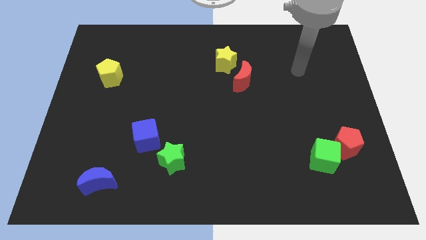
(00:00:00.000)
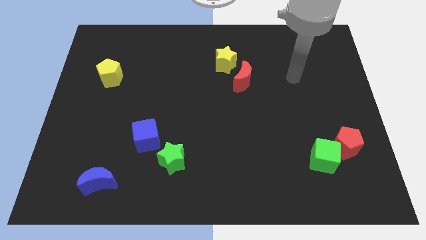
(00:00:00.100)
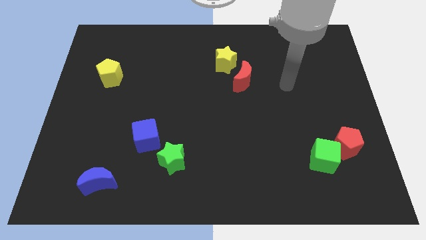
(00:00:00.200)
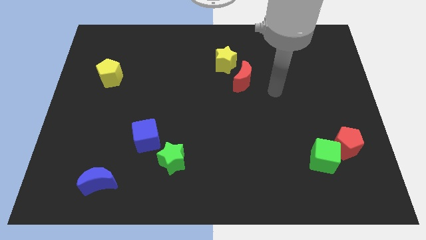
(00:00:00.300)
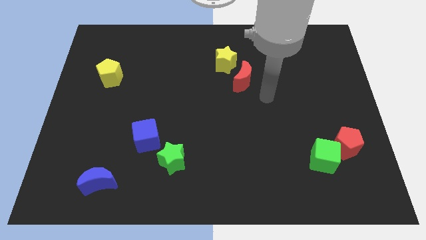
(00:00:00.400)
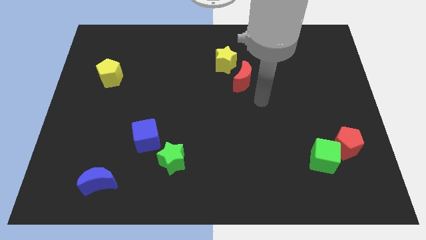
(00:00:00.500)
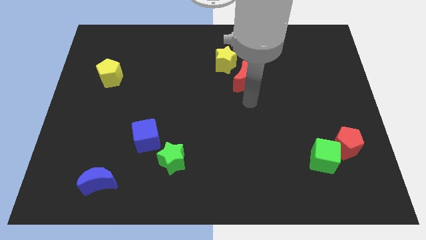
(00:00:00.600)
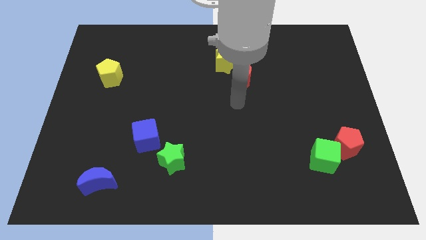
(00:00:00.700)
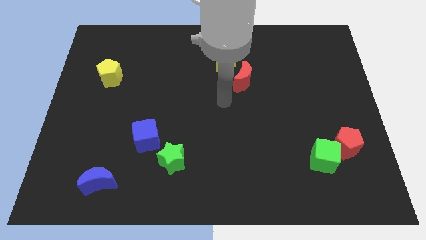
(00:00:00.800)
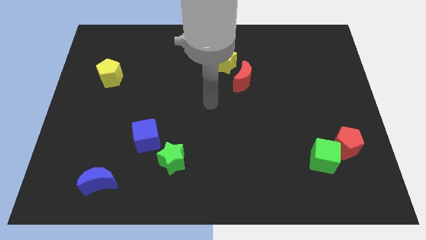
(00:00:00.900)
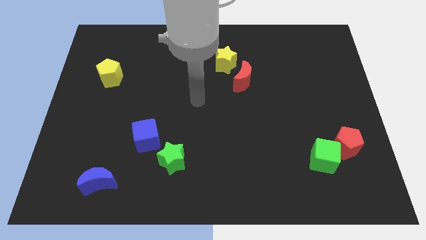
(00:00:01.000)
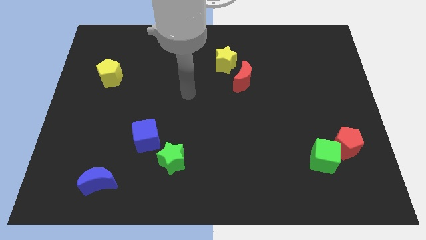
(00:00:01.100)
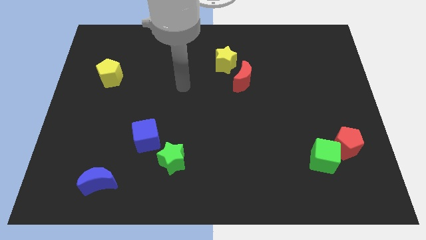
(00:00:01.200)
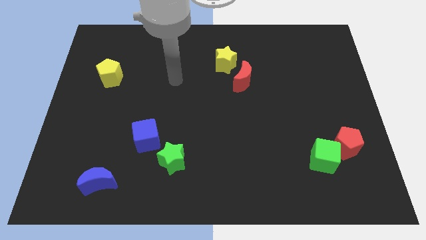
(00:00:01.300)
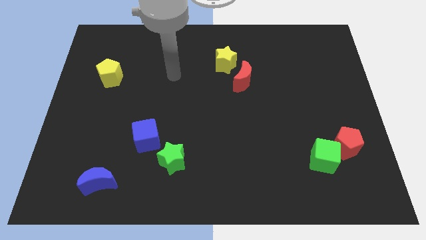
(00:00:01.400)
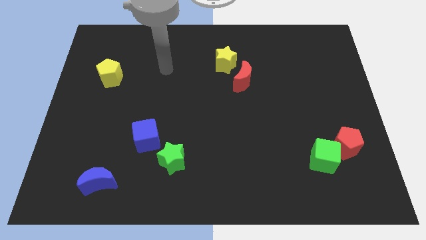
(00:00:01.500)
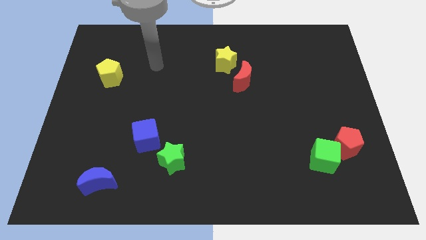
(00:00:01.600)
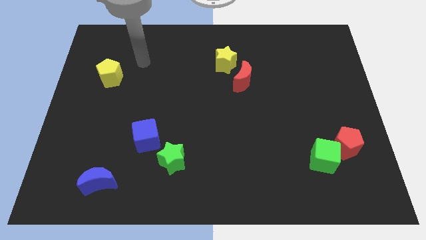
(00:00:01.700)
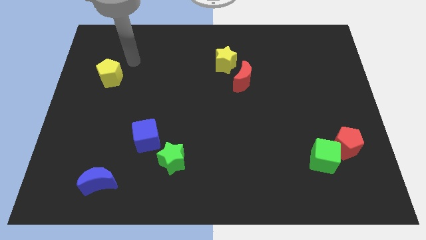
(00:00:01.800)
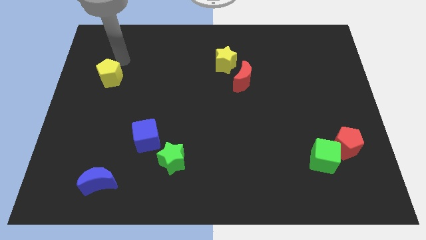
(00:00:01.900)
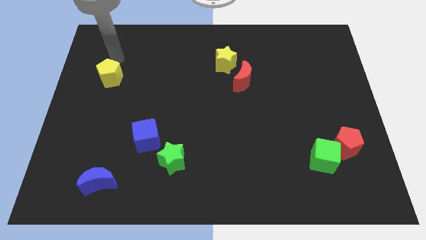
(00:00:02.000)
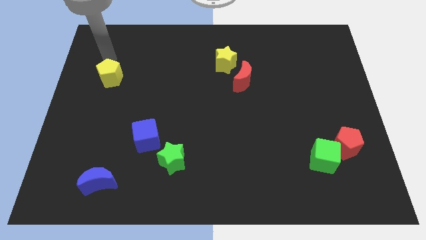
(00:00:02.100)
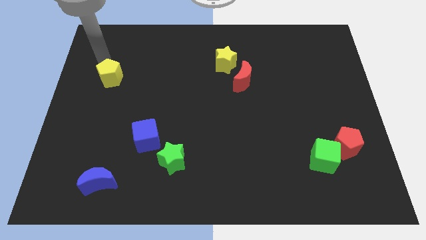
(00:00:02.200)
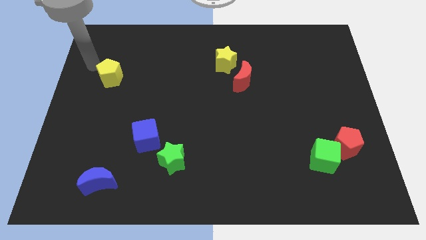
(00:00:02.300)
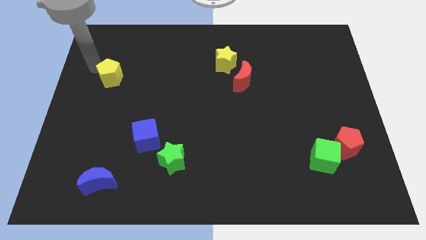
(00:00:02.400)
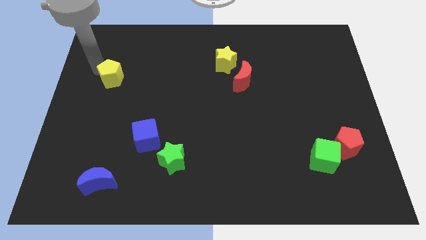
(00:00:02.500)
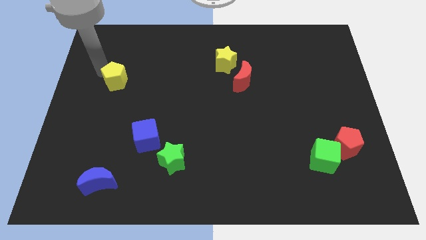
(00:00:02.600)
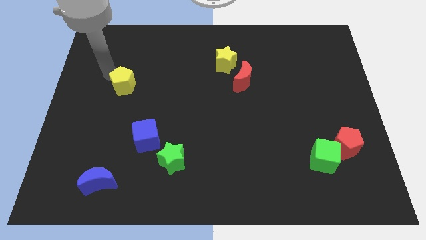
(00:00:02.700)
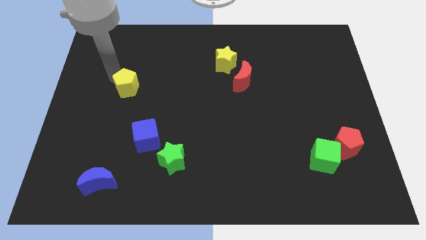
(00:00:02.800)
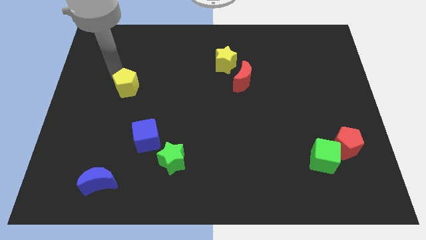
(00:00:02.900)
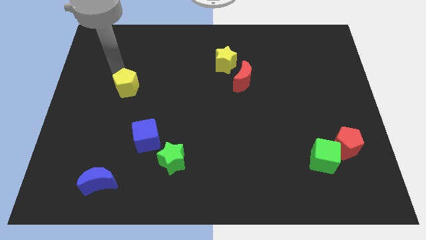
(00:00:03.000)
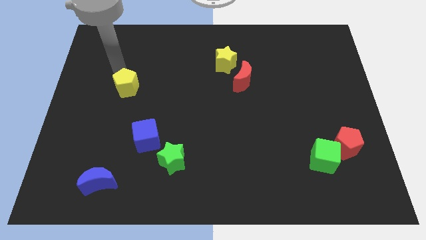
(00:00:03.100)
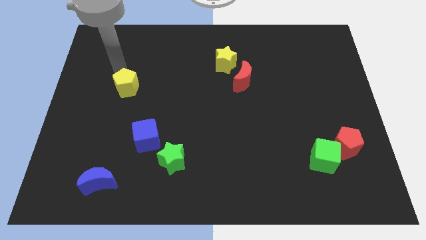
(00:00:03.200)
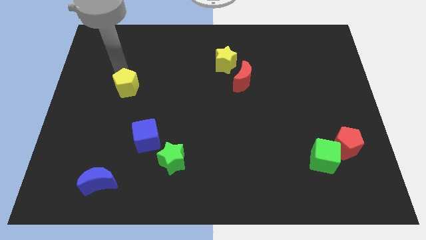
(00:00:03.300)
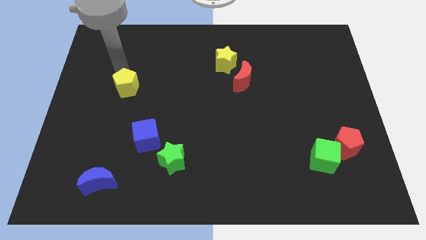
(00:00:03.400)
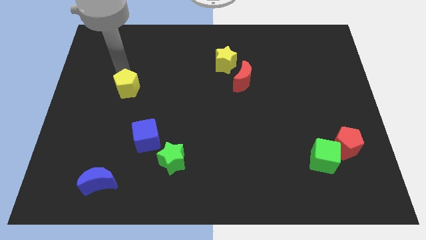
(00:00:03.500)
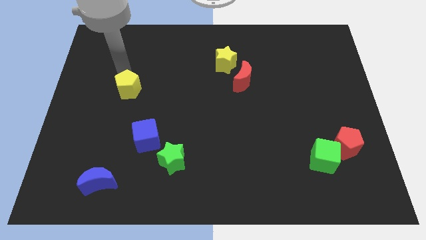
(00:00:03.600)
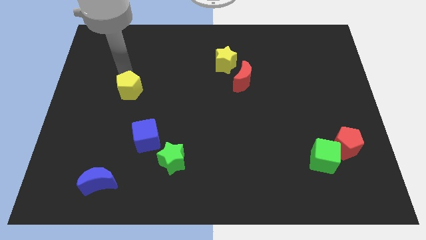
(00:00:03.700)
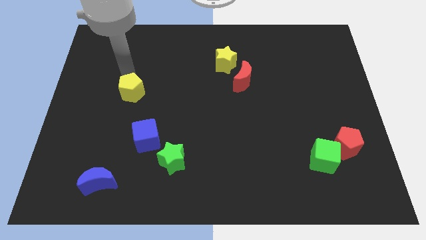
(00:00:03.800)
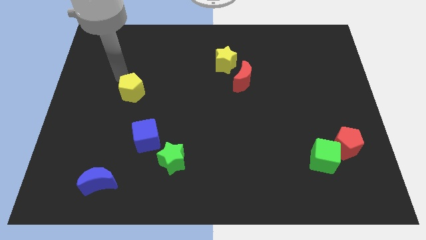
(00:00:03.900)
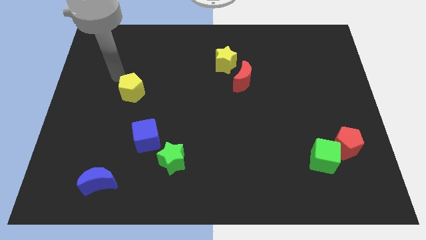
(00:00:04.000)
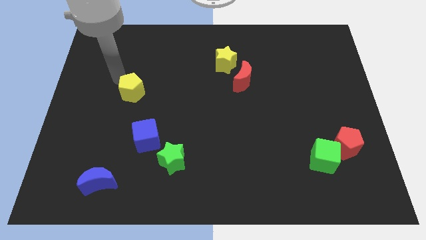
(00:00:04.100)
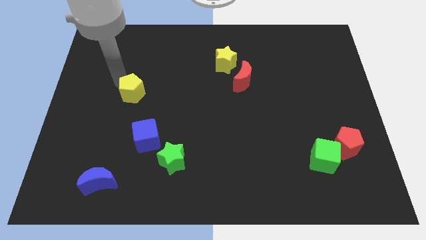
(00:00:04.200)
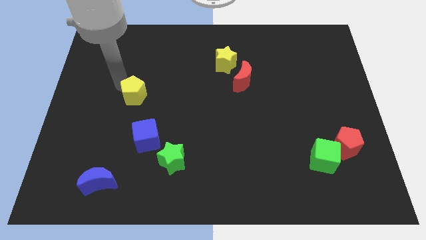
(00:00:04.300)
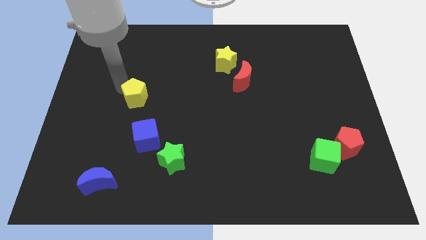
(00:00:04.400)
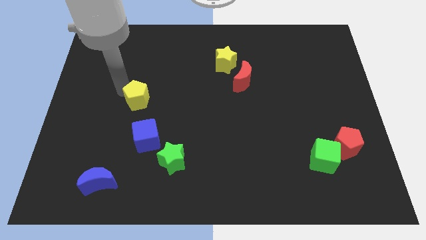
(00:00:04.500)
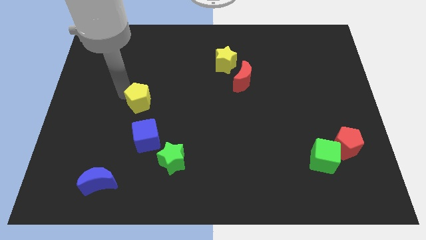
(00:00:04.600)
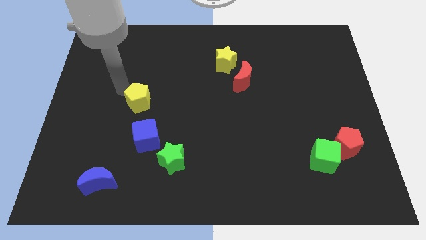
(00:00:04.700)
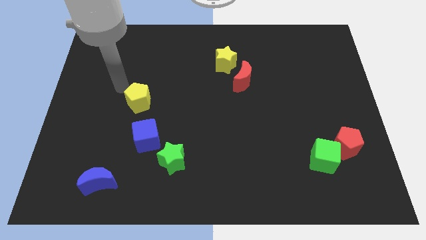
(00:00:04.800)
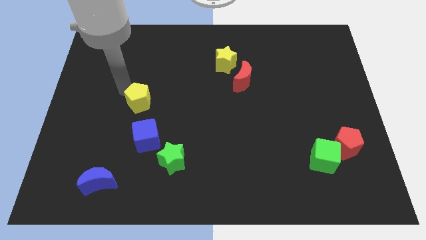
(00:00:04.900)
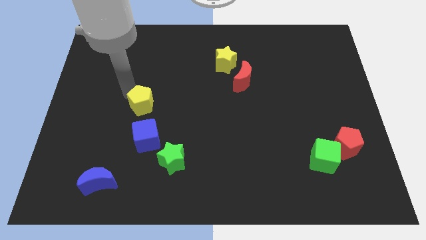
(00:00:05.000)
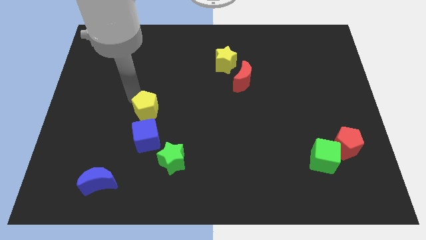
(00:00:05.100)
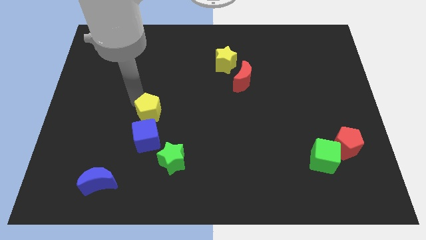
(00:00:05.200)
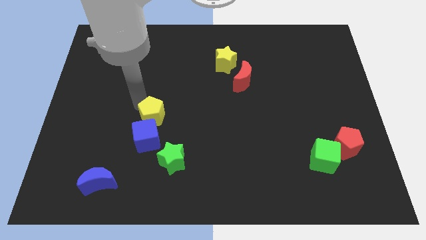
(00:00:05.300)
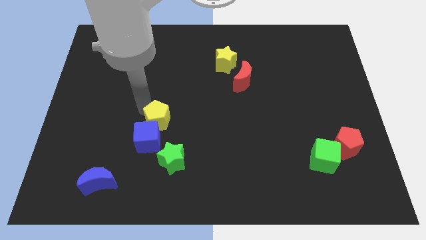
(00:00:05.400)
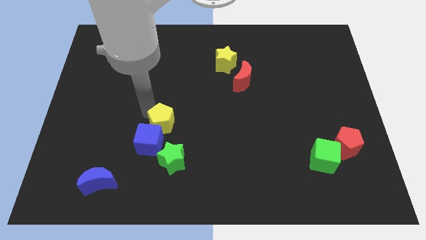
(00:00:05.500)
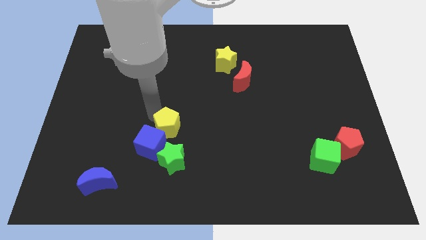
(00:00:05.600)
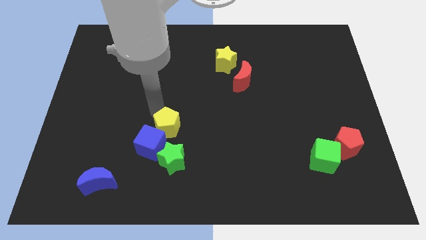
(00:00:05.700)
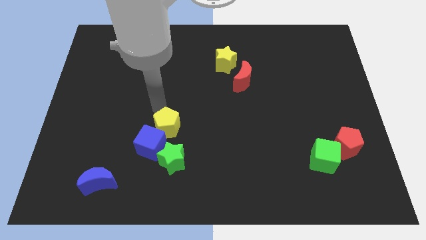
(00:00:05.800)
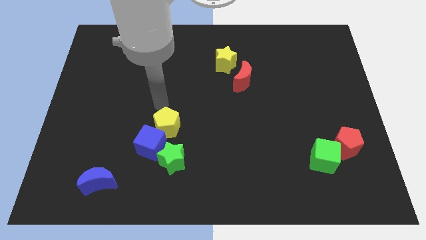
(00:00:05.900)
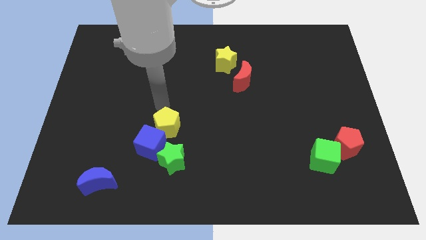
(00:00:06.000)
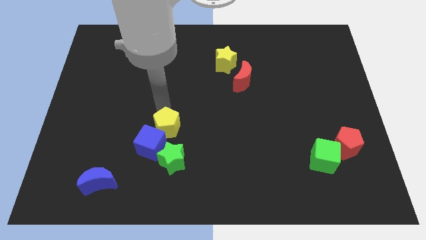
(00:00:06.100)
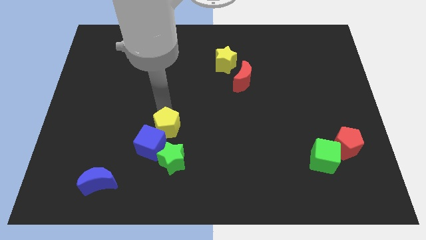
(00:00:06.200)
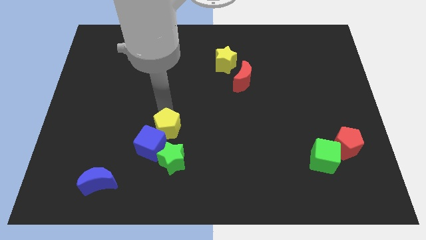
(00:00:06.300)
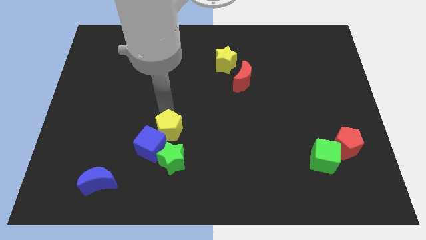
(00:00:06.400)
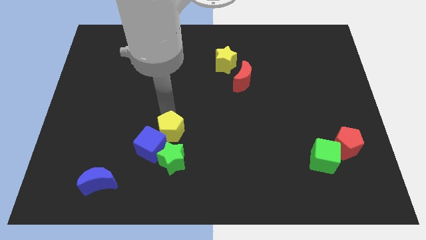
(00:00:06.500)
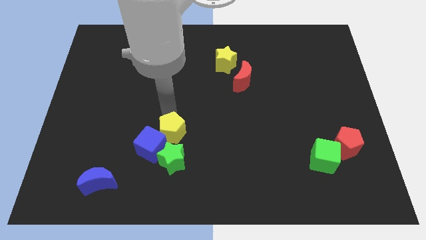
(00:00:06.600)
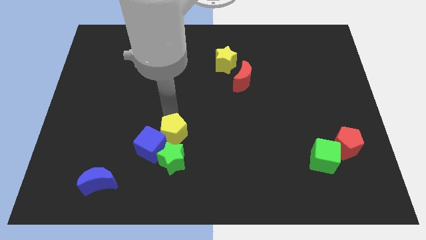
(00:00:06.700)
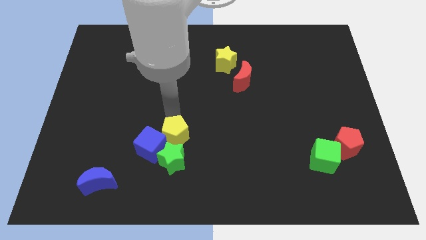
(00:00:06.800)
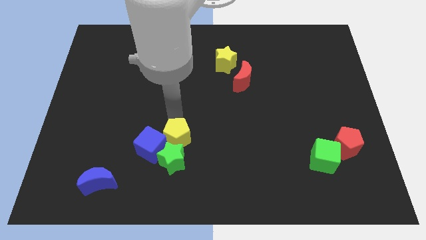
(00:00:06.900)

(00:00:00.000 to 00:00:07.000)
move the yellow pentagon to the green star
